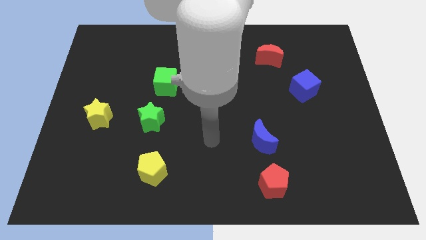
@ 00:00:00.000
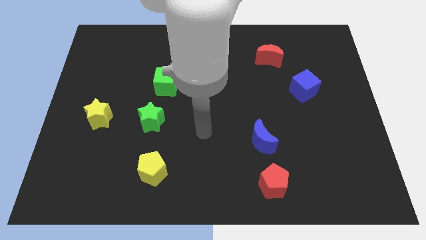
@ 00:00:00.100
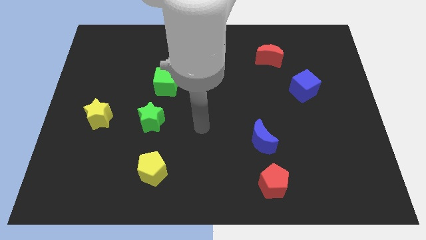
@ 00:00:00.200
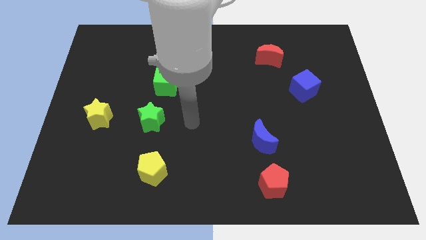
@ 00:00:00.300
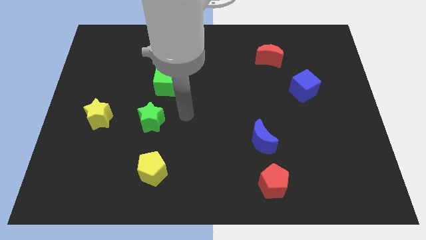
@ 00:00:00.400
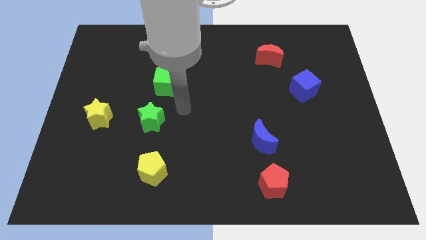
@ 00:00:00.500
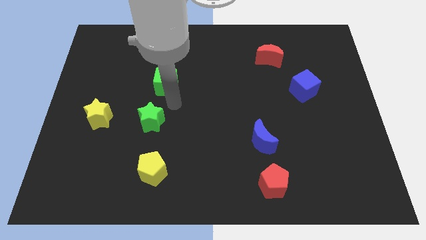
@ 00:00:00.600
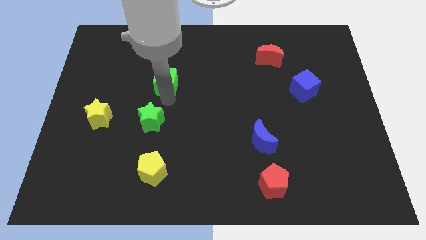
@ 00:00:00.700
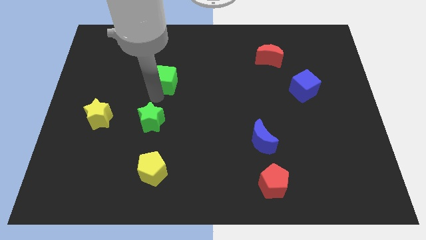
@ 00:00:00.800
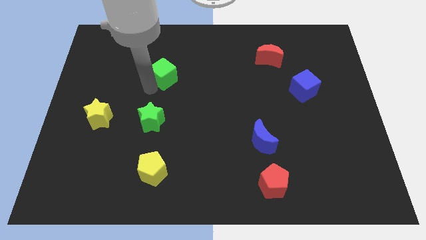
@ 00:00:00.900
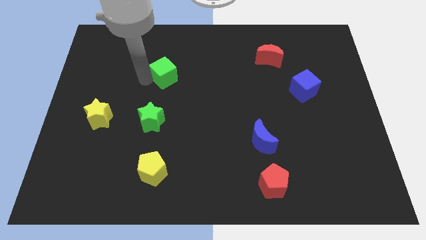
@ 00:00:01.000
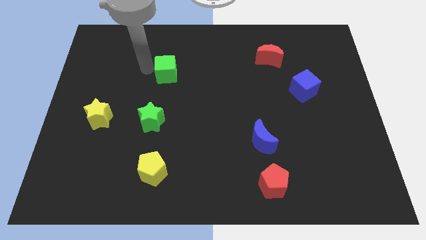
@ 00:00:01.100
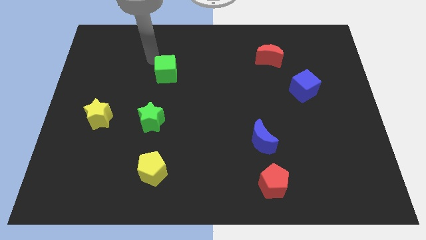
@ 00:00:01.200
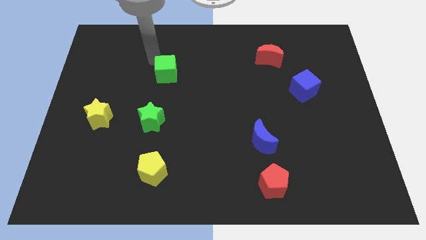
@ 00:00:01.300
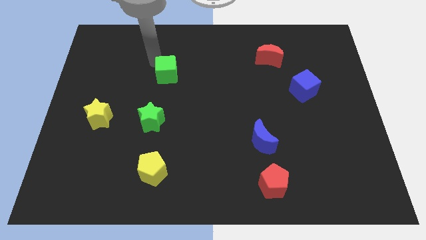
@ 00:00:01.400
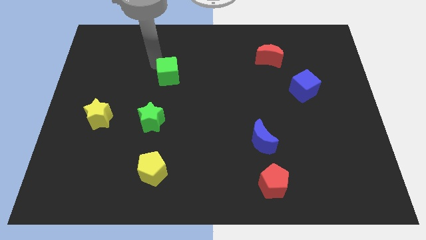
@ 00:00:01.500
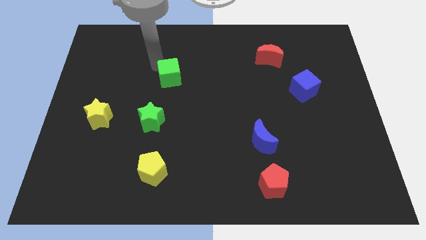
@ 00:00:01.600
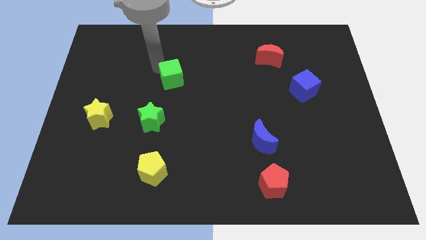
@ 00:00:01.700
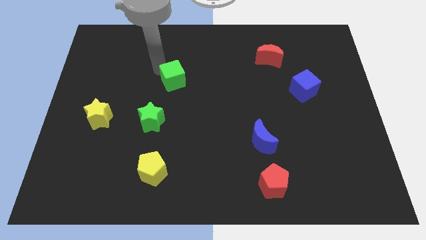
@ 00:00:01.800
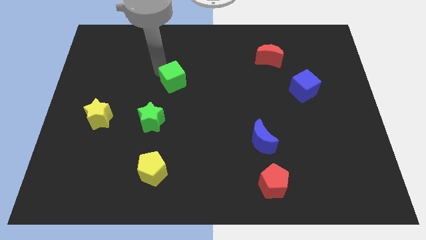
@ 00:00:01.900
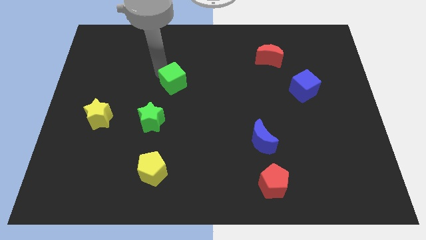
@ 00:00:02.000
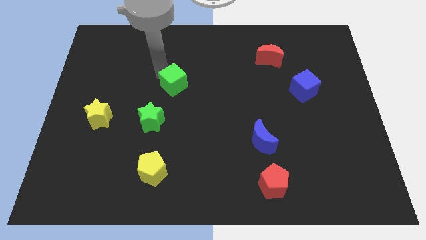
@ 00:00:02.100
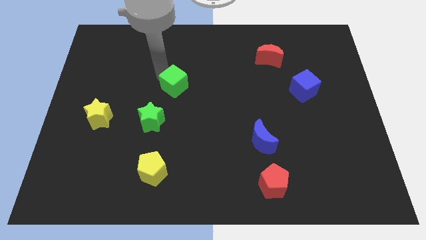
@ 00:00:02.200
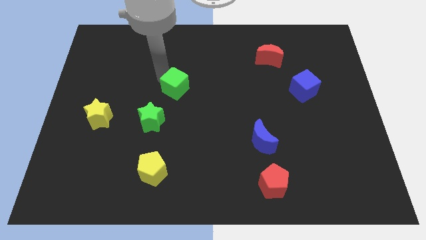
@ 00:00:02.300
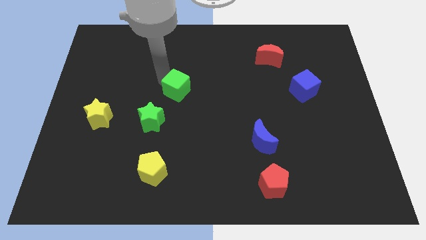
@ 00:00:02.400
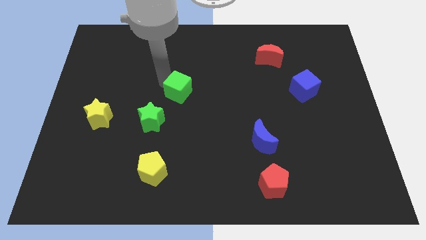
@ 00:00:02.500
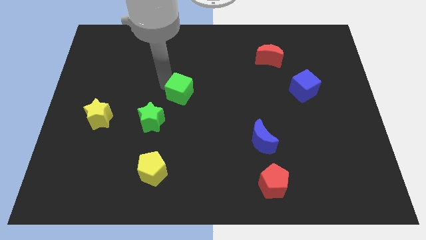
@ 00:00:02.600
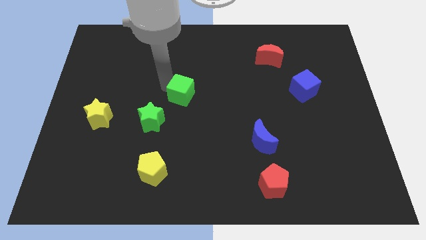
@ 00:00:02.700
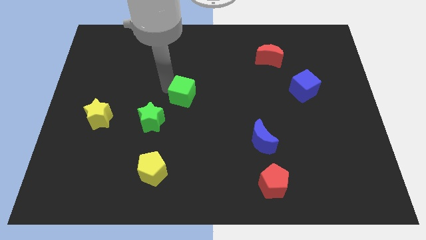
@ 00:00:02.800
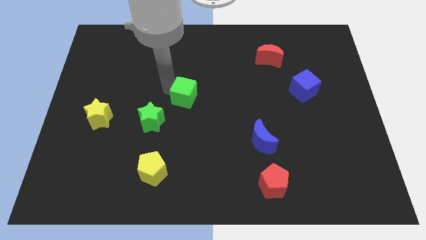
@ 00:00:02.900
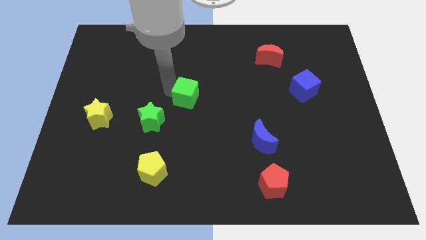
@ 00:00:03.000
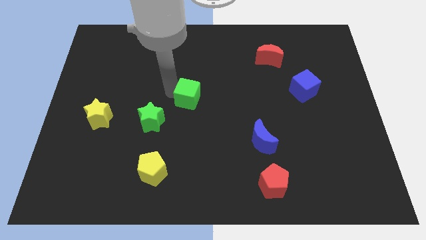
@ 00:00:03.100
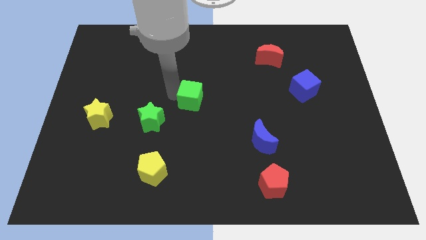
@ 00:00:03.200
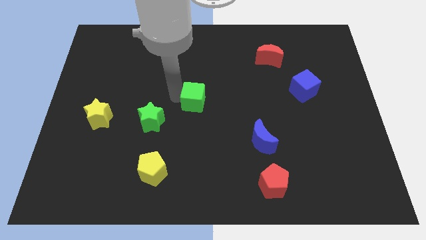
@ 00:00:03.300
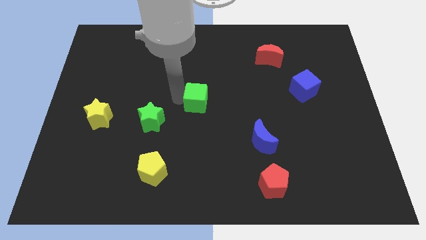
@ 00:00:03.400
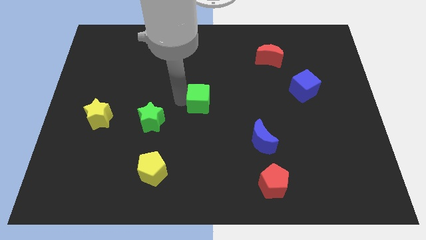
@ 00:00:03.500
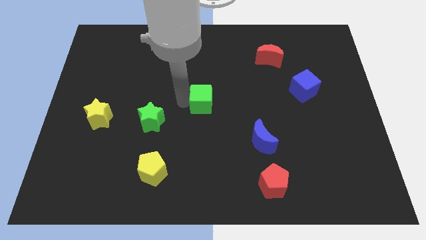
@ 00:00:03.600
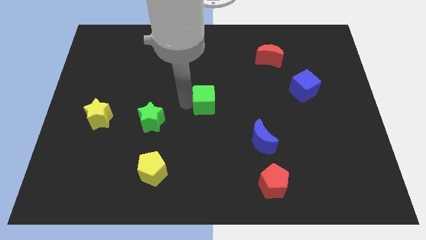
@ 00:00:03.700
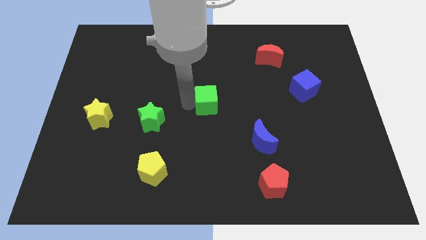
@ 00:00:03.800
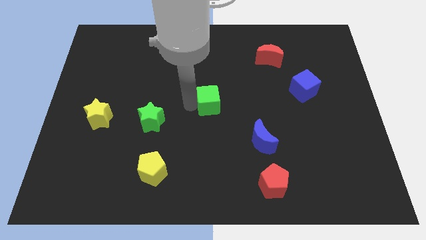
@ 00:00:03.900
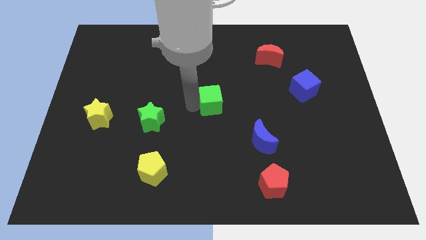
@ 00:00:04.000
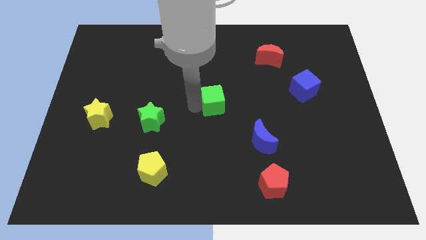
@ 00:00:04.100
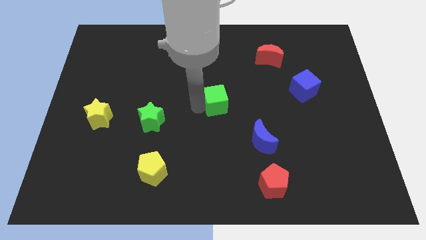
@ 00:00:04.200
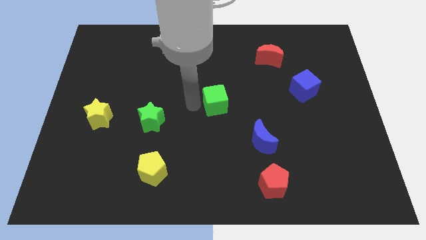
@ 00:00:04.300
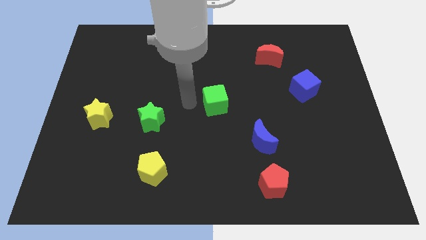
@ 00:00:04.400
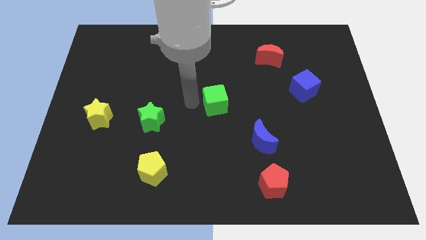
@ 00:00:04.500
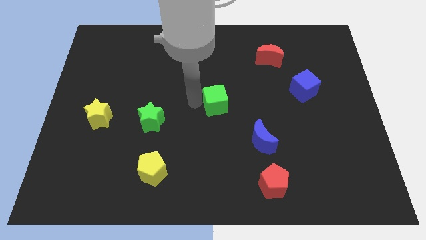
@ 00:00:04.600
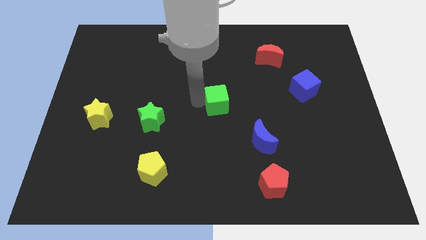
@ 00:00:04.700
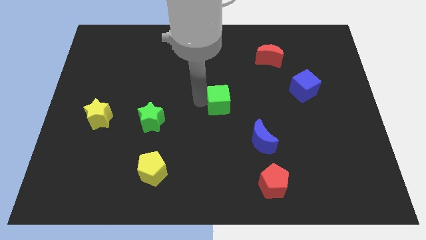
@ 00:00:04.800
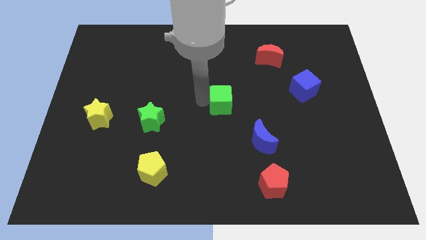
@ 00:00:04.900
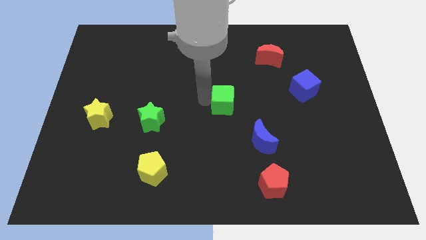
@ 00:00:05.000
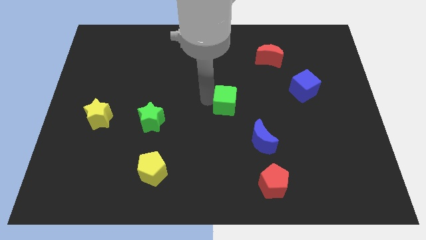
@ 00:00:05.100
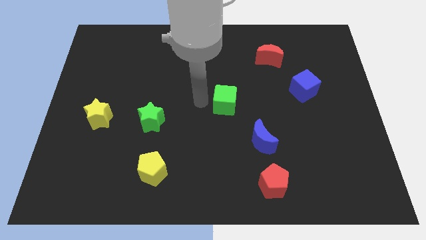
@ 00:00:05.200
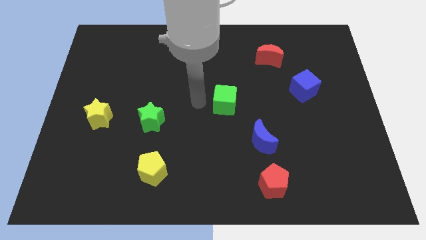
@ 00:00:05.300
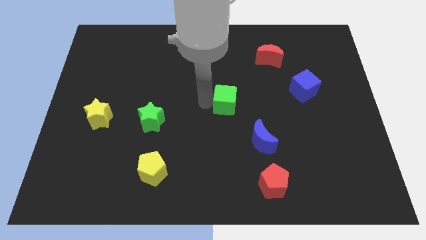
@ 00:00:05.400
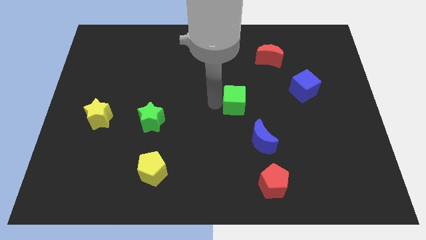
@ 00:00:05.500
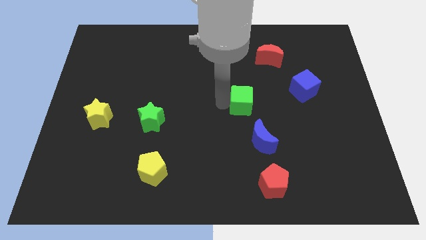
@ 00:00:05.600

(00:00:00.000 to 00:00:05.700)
slide the green cube to the top side of the blue moon

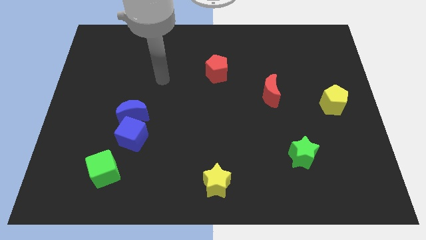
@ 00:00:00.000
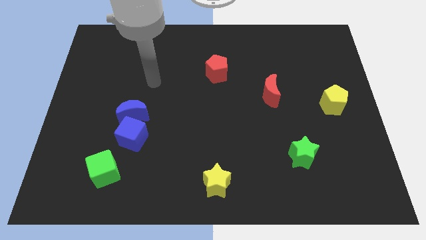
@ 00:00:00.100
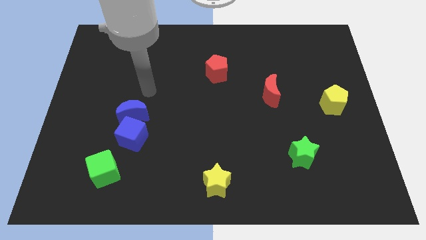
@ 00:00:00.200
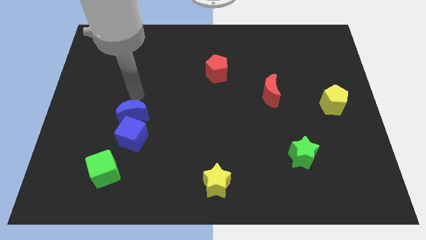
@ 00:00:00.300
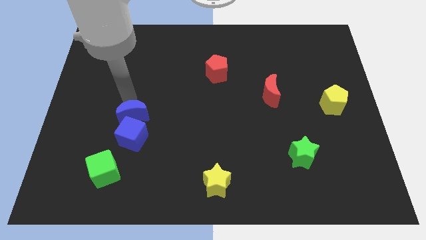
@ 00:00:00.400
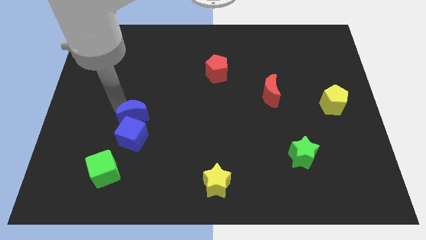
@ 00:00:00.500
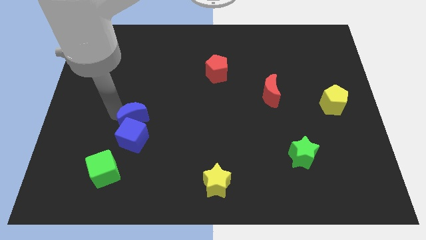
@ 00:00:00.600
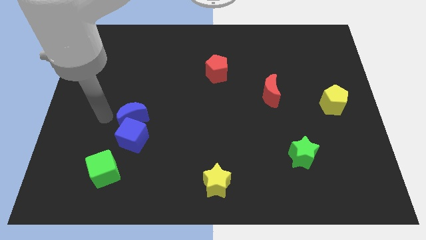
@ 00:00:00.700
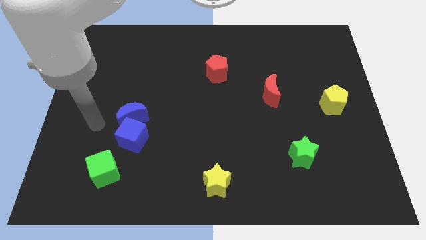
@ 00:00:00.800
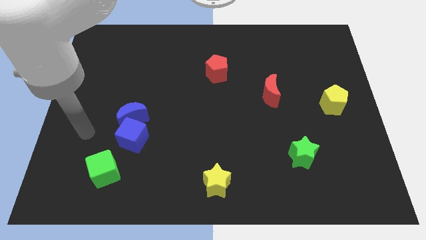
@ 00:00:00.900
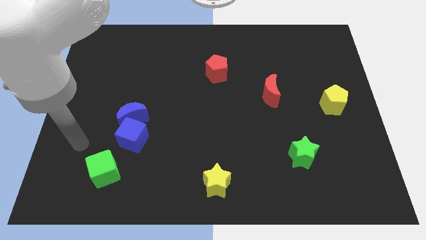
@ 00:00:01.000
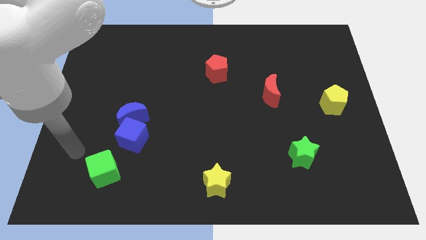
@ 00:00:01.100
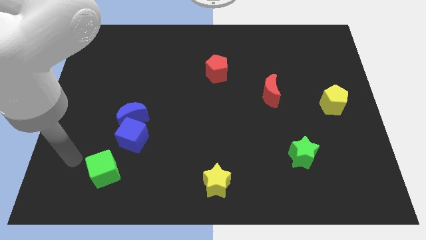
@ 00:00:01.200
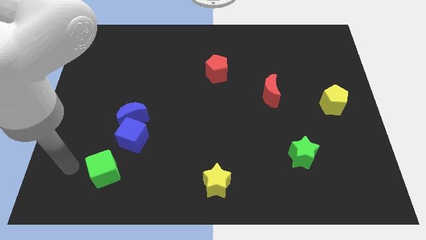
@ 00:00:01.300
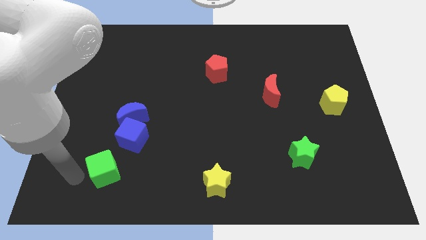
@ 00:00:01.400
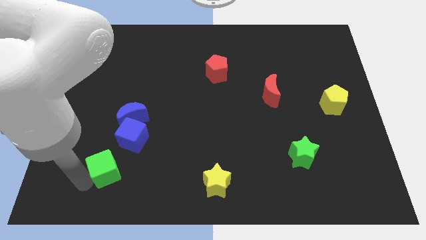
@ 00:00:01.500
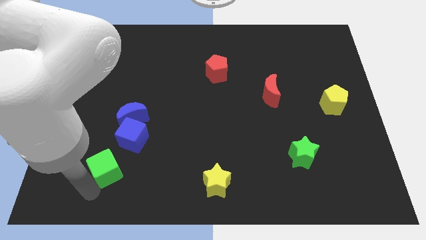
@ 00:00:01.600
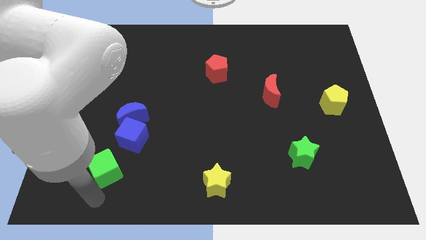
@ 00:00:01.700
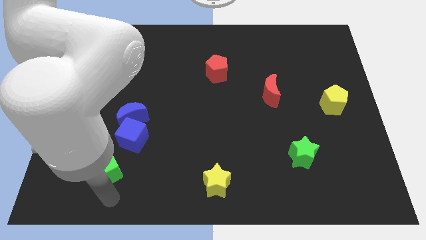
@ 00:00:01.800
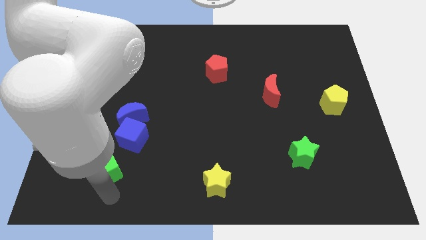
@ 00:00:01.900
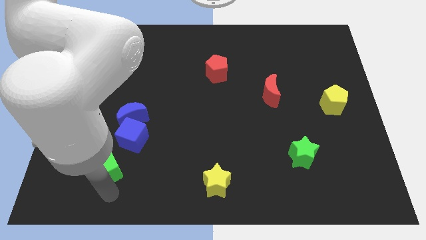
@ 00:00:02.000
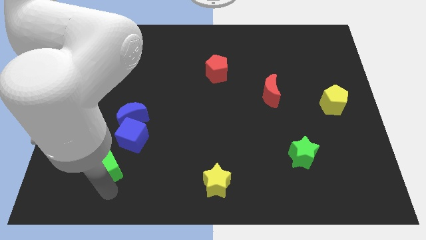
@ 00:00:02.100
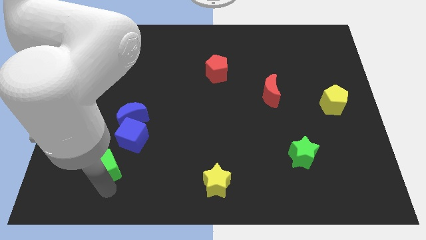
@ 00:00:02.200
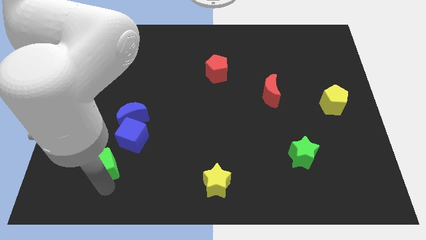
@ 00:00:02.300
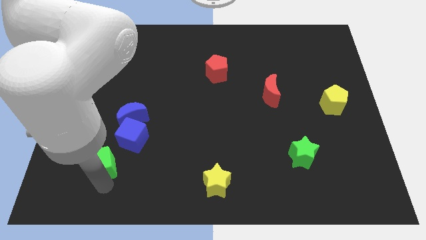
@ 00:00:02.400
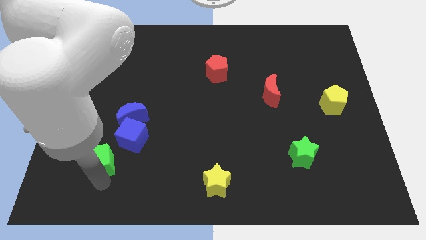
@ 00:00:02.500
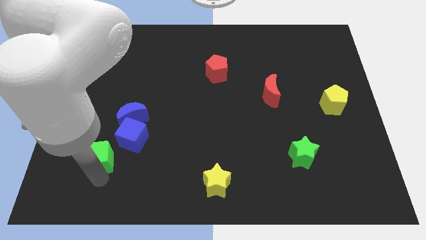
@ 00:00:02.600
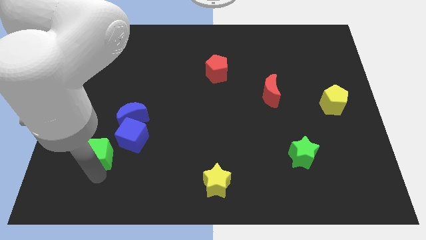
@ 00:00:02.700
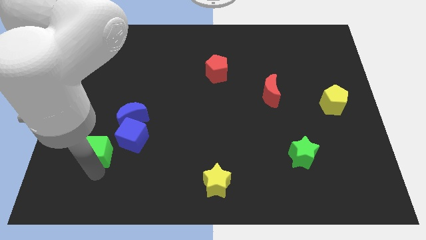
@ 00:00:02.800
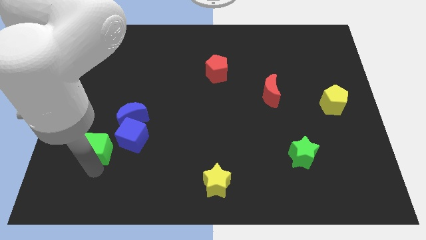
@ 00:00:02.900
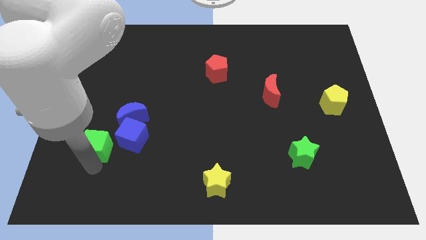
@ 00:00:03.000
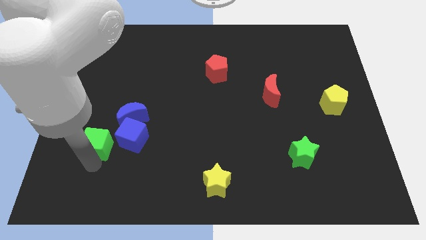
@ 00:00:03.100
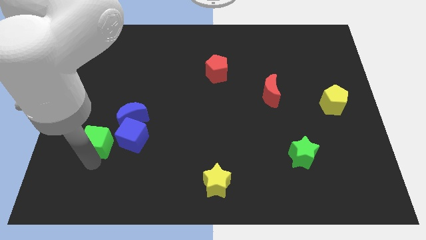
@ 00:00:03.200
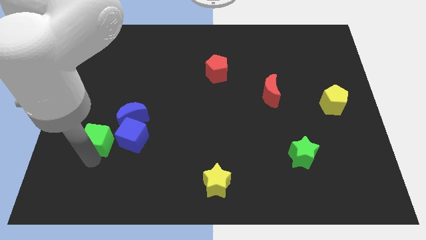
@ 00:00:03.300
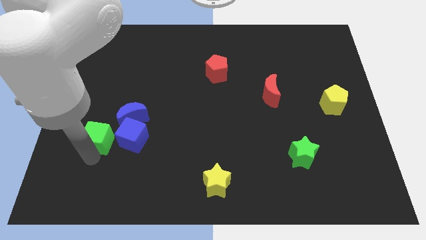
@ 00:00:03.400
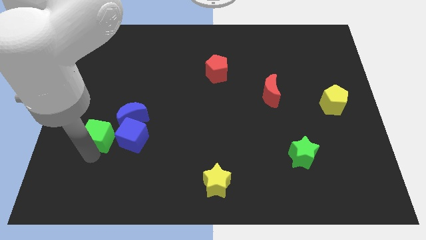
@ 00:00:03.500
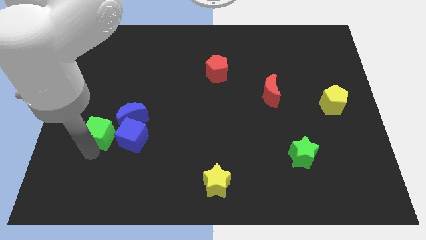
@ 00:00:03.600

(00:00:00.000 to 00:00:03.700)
slide the green cube diagonally up and to the left of the blue cube
